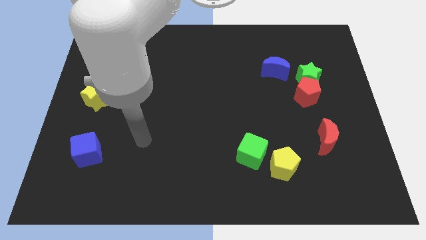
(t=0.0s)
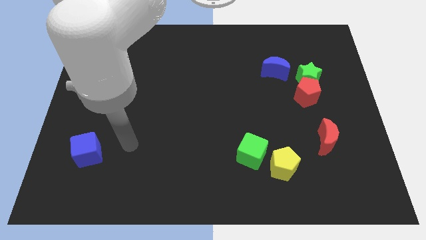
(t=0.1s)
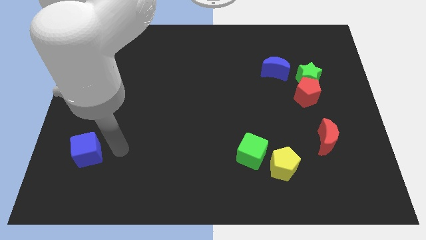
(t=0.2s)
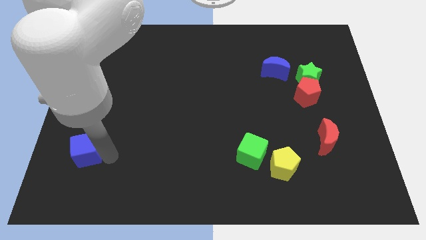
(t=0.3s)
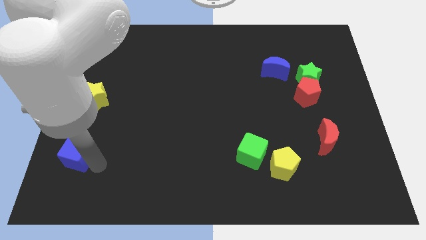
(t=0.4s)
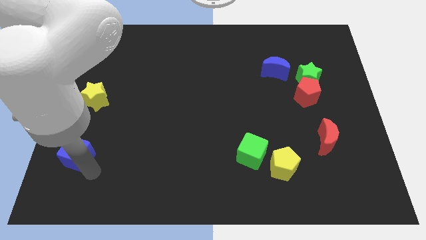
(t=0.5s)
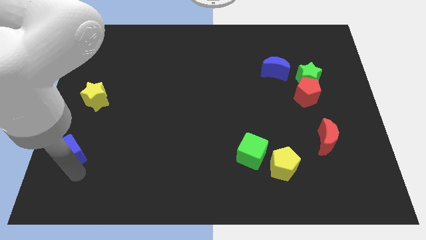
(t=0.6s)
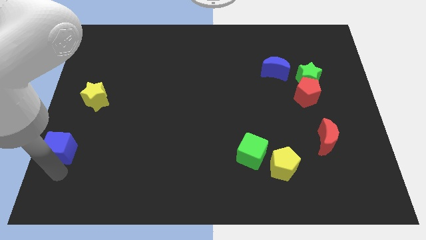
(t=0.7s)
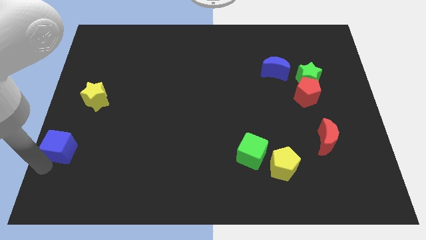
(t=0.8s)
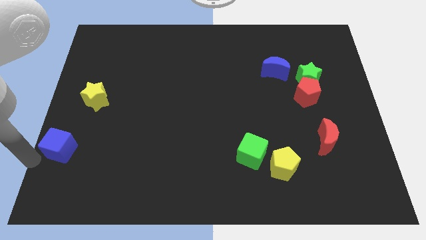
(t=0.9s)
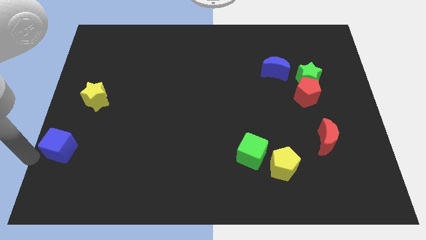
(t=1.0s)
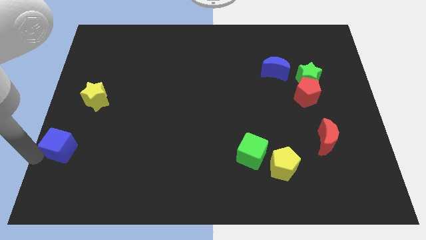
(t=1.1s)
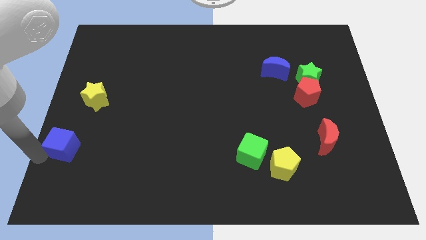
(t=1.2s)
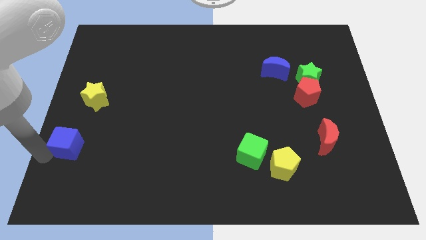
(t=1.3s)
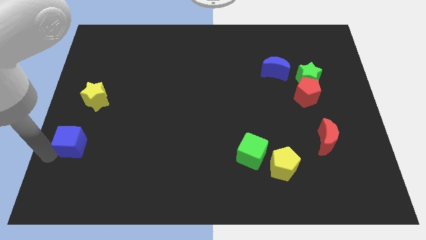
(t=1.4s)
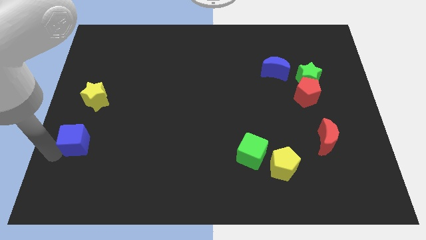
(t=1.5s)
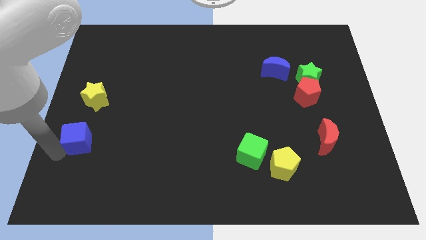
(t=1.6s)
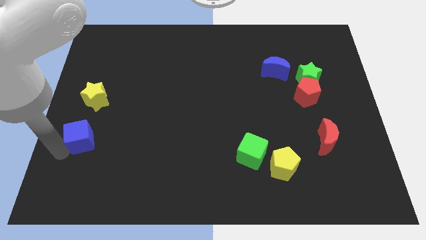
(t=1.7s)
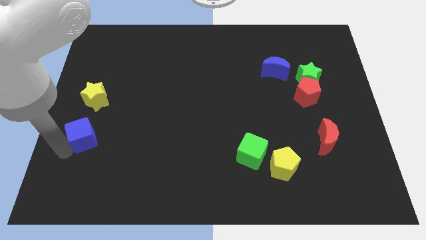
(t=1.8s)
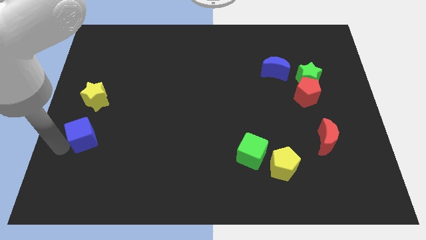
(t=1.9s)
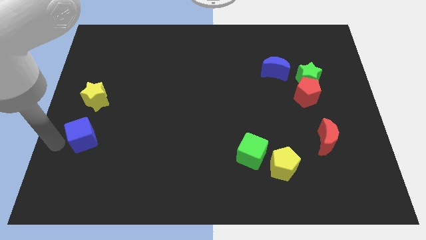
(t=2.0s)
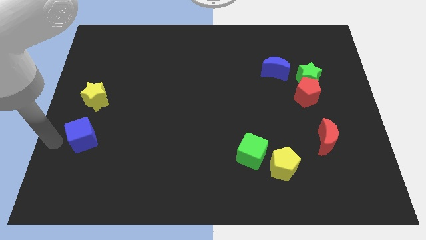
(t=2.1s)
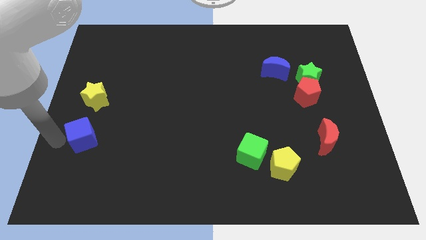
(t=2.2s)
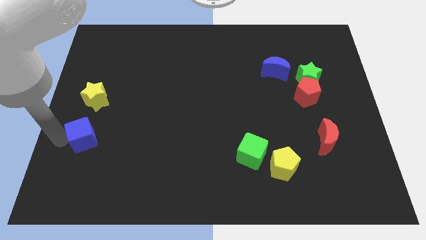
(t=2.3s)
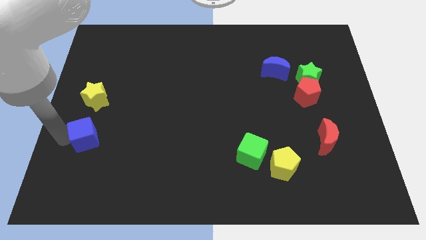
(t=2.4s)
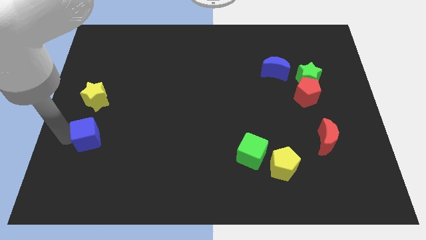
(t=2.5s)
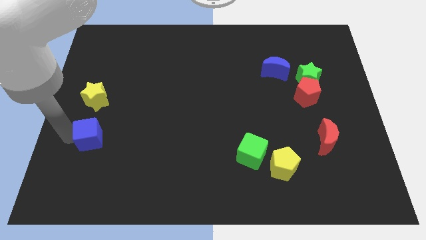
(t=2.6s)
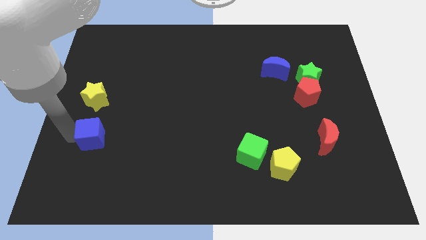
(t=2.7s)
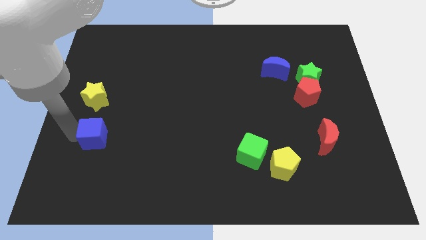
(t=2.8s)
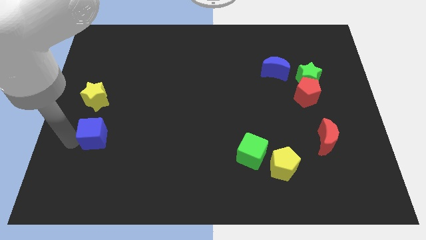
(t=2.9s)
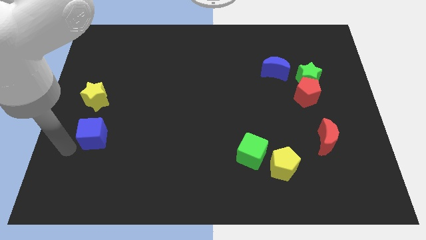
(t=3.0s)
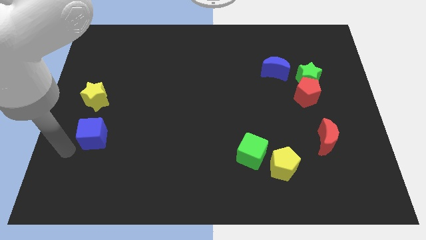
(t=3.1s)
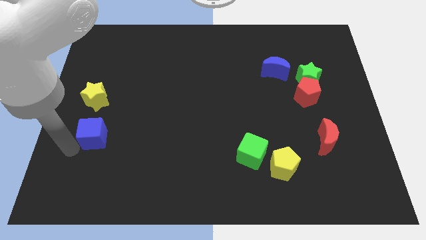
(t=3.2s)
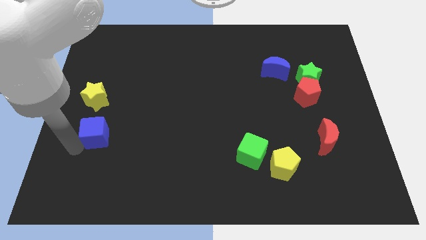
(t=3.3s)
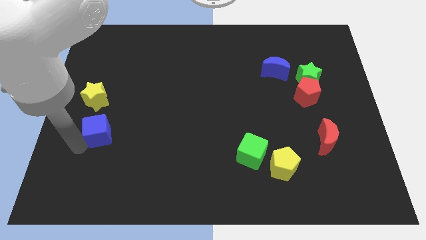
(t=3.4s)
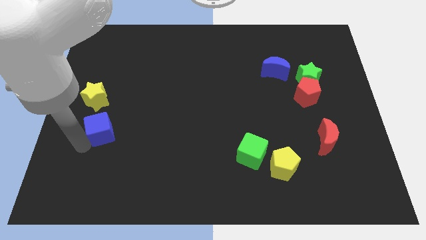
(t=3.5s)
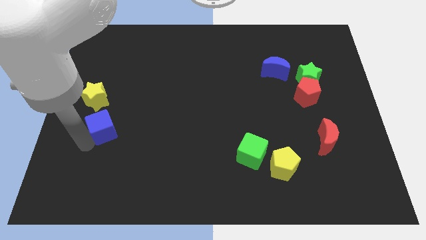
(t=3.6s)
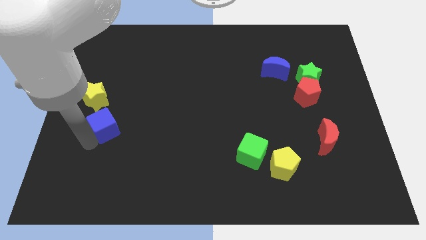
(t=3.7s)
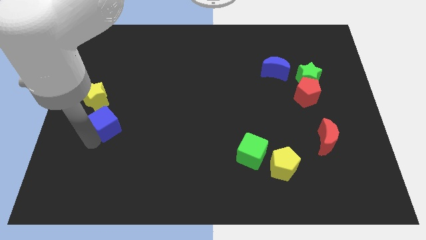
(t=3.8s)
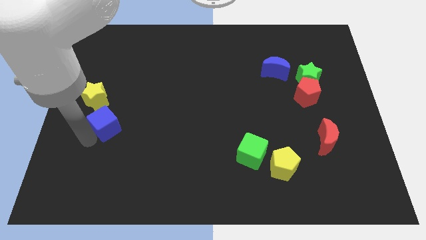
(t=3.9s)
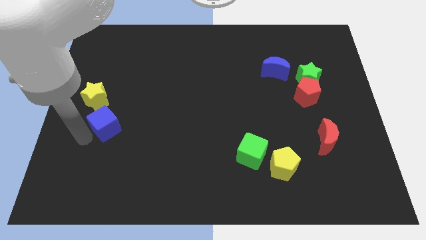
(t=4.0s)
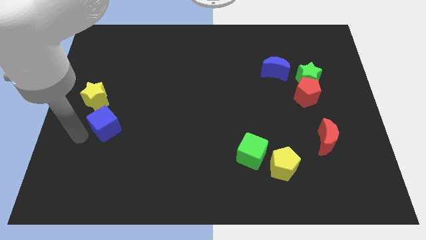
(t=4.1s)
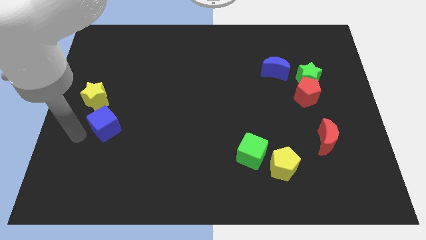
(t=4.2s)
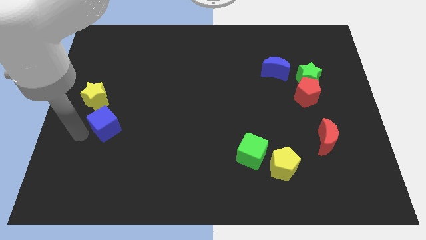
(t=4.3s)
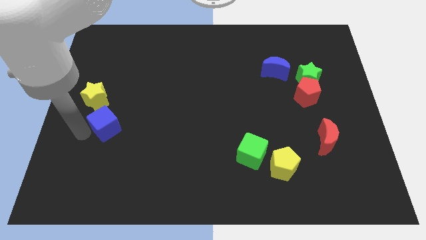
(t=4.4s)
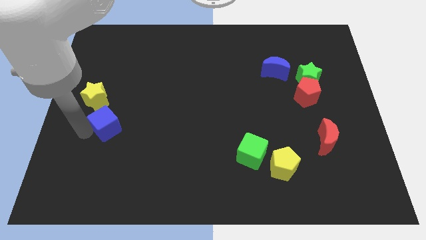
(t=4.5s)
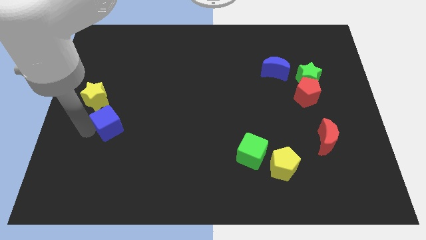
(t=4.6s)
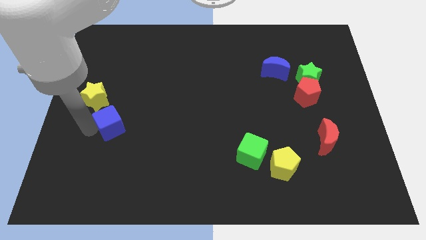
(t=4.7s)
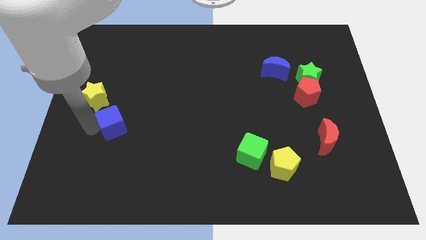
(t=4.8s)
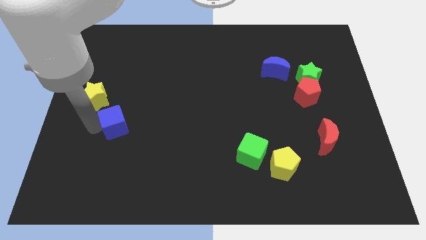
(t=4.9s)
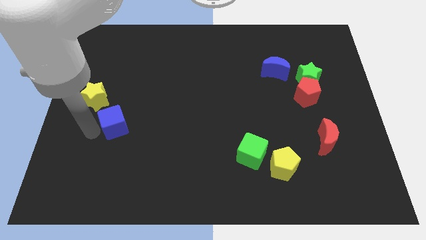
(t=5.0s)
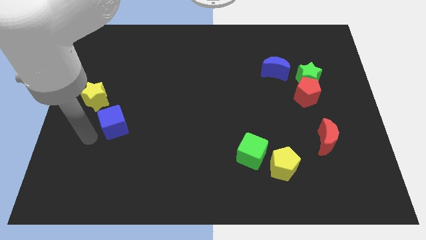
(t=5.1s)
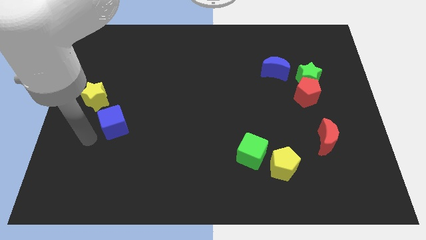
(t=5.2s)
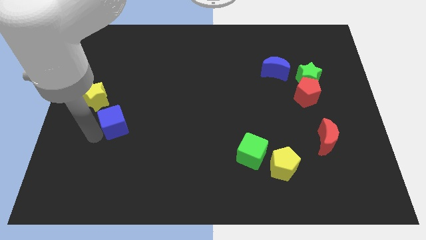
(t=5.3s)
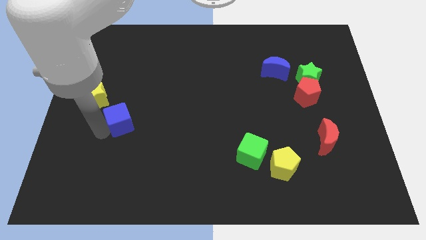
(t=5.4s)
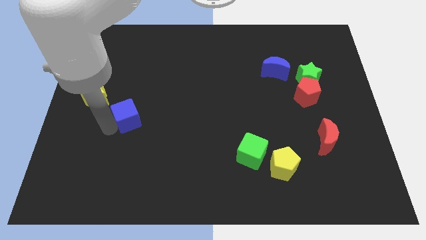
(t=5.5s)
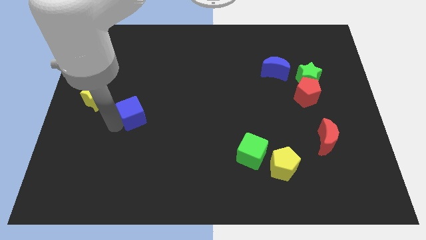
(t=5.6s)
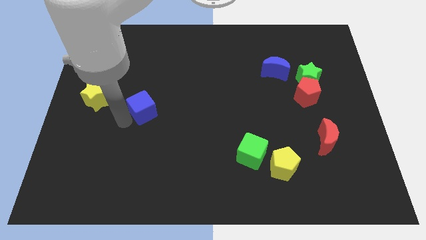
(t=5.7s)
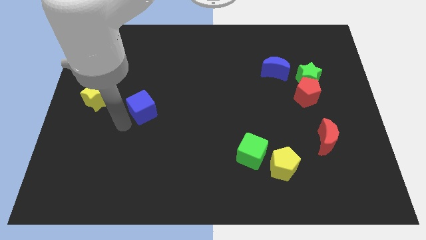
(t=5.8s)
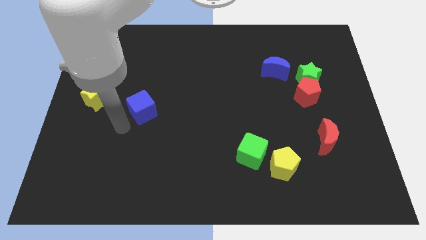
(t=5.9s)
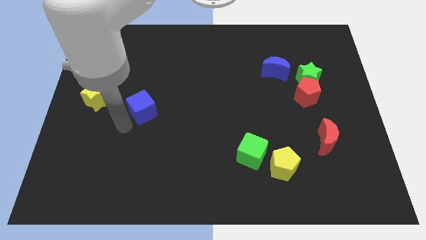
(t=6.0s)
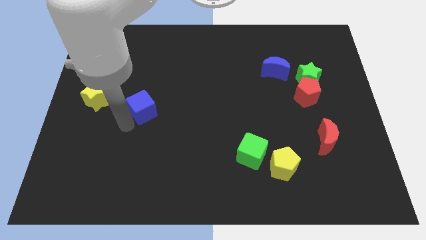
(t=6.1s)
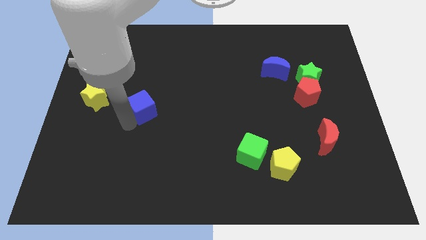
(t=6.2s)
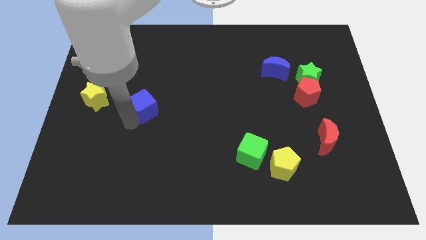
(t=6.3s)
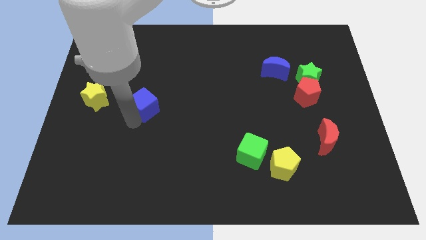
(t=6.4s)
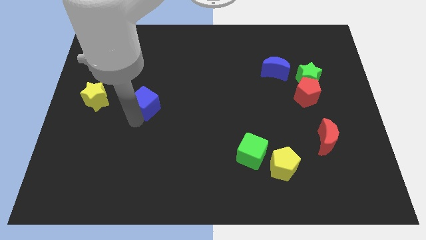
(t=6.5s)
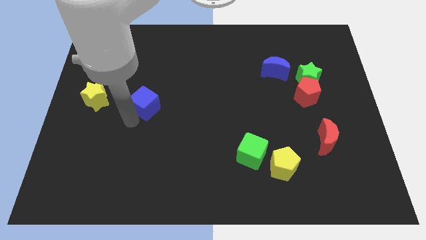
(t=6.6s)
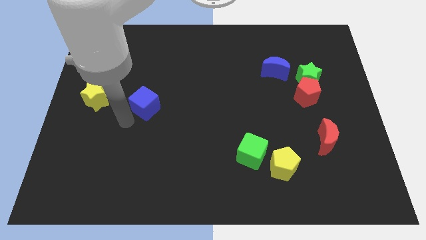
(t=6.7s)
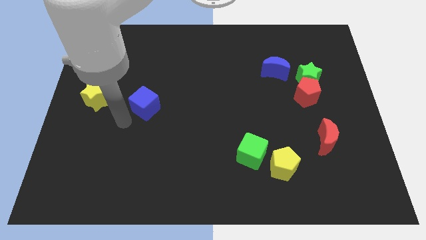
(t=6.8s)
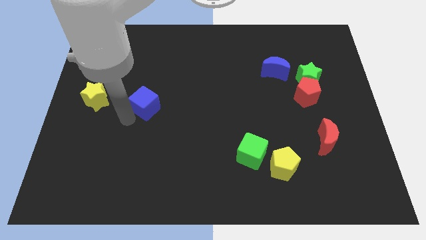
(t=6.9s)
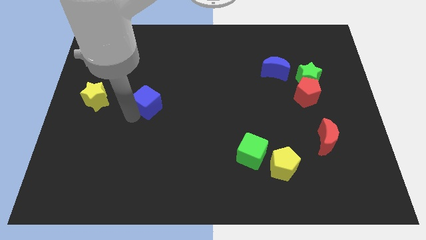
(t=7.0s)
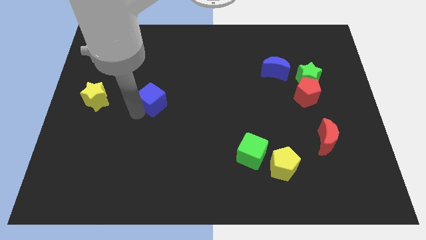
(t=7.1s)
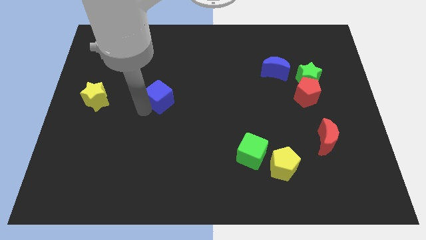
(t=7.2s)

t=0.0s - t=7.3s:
push the blue cube up and right diagonally

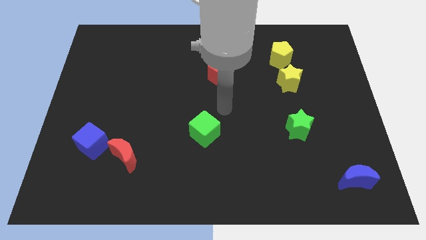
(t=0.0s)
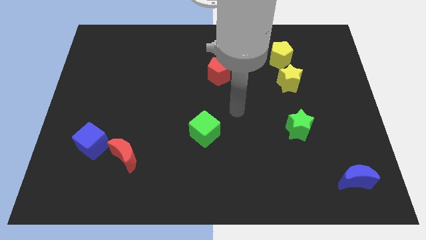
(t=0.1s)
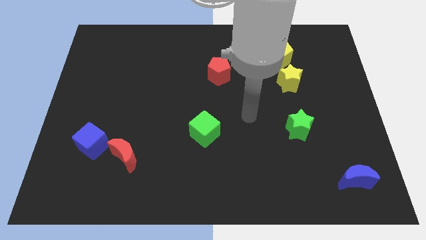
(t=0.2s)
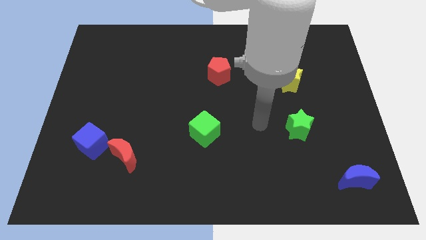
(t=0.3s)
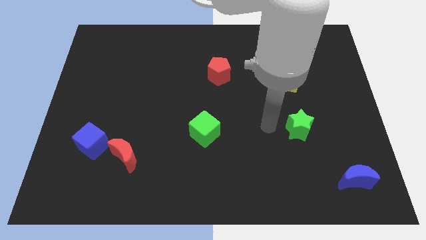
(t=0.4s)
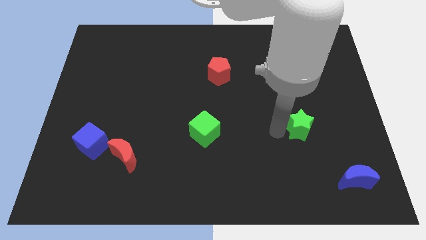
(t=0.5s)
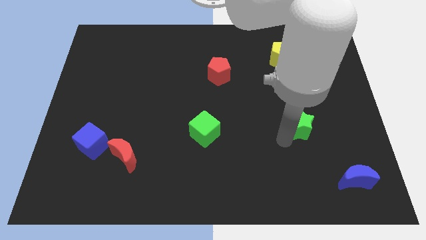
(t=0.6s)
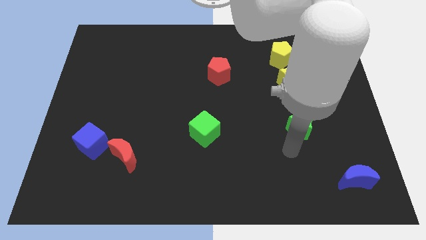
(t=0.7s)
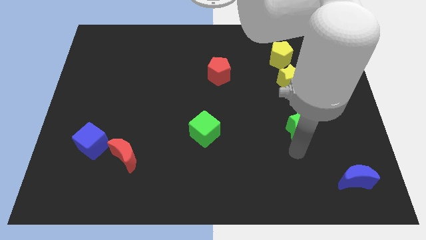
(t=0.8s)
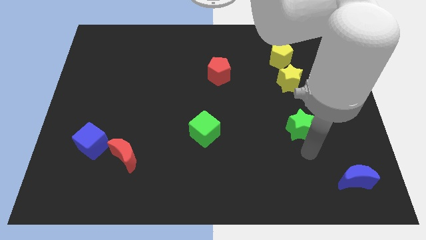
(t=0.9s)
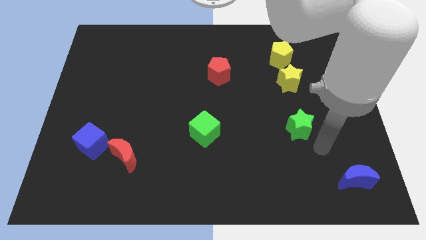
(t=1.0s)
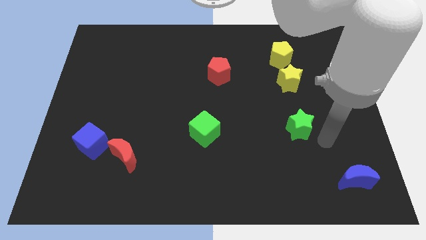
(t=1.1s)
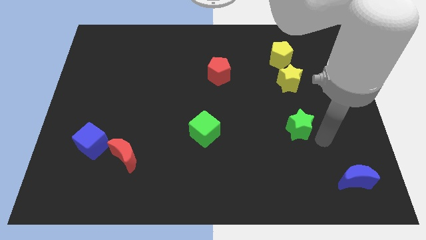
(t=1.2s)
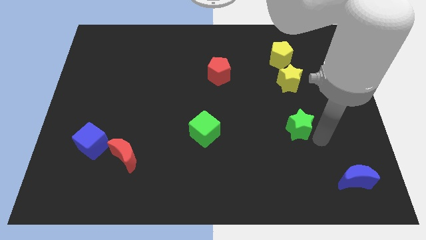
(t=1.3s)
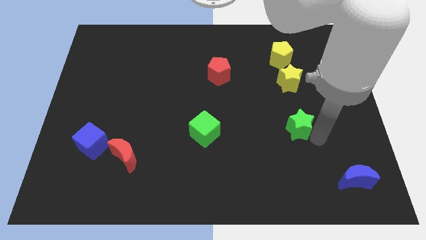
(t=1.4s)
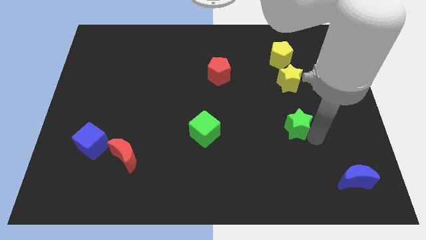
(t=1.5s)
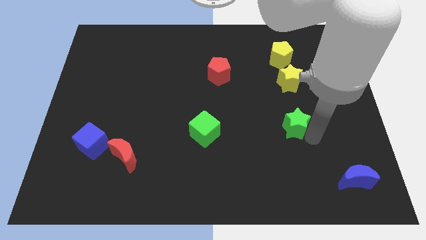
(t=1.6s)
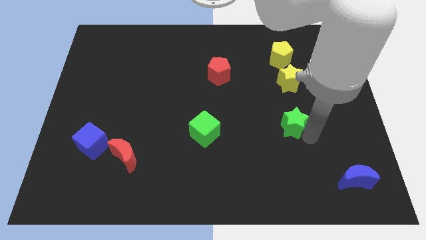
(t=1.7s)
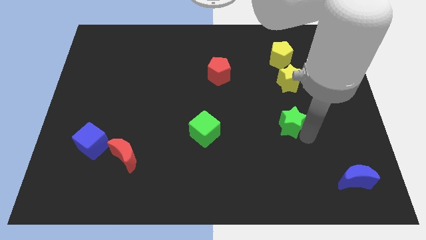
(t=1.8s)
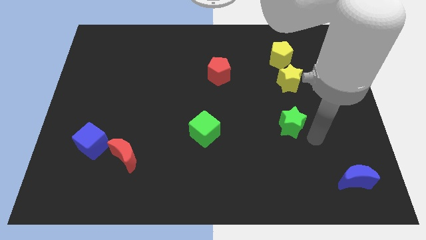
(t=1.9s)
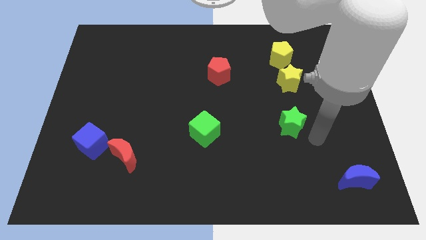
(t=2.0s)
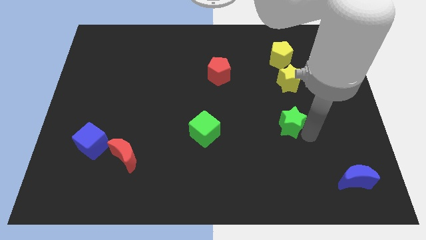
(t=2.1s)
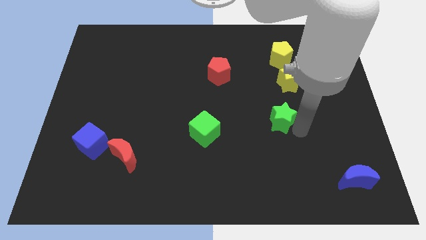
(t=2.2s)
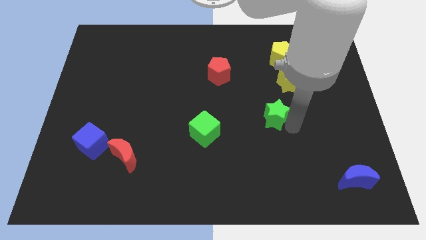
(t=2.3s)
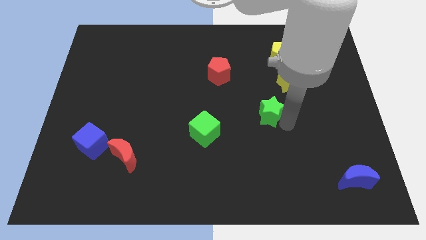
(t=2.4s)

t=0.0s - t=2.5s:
push the green star up and to the left somewhat
